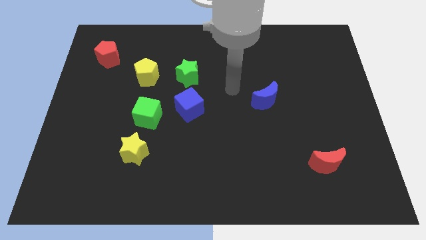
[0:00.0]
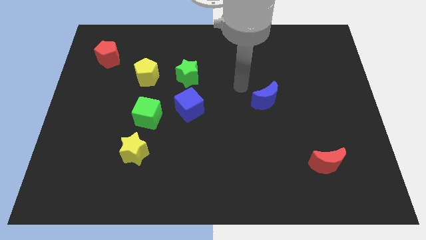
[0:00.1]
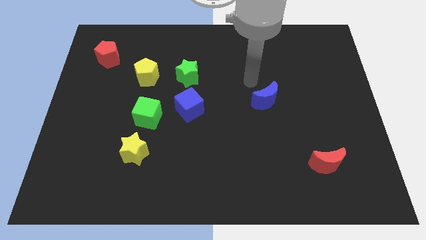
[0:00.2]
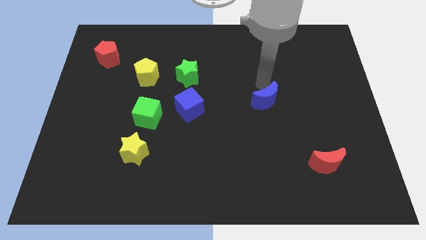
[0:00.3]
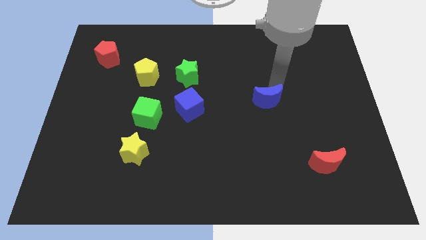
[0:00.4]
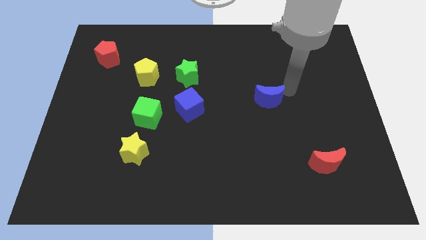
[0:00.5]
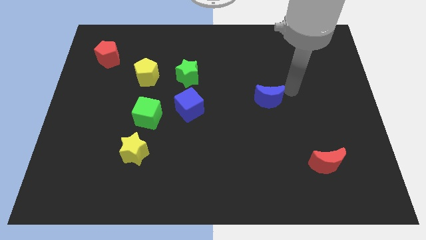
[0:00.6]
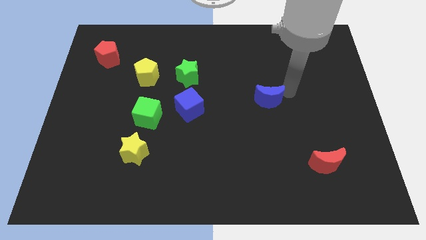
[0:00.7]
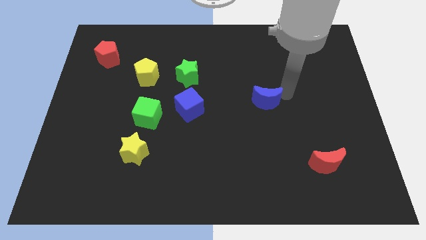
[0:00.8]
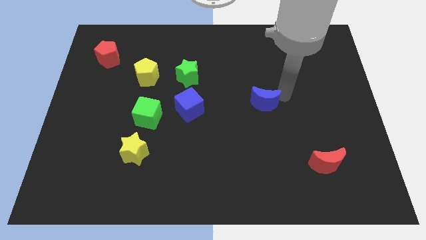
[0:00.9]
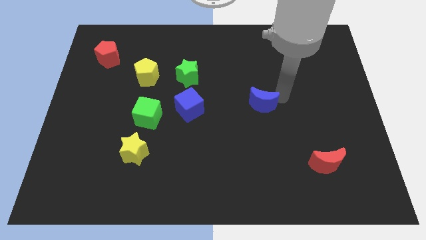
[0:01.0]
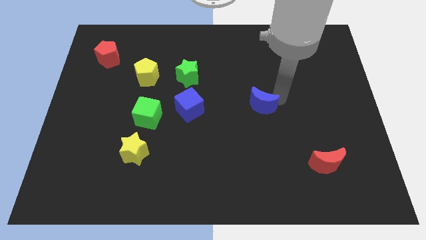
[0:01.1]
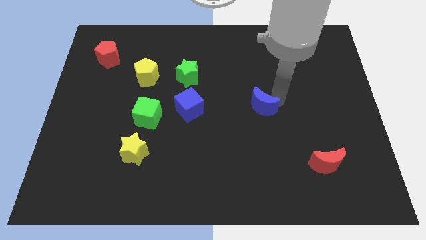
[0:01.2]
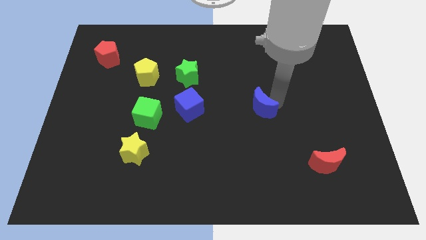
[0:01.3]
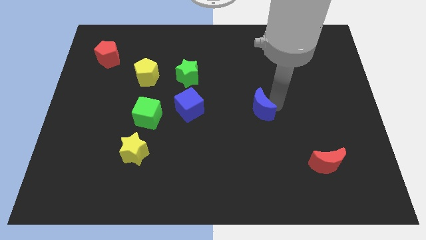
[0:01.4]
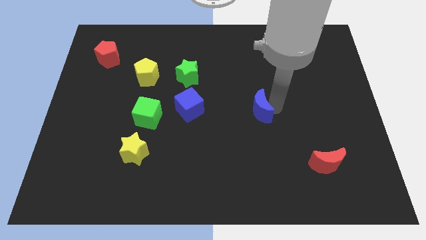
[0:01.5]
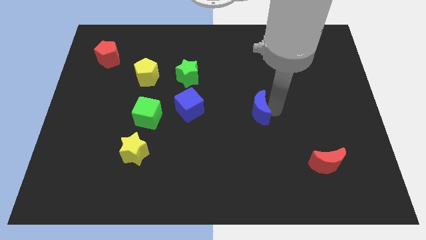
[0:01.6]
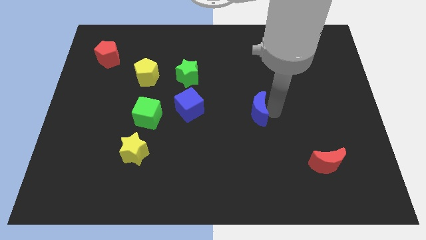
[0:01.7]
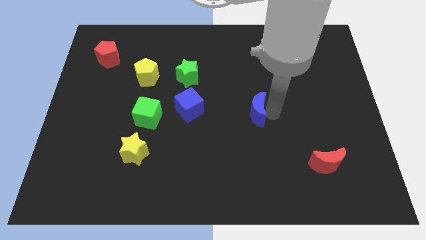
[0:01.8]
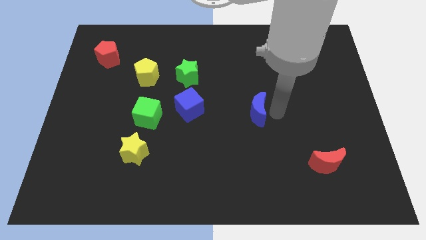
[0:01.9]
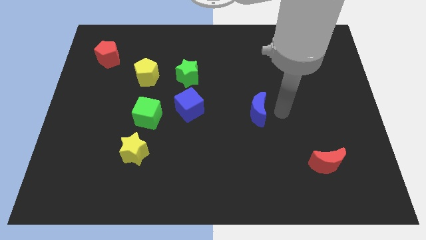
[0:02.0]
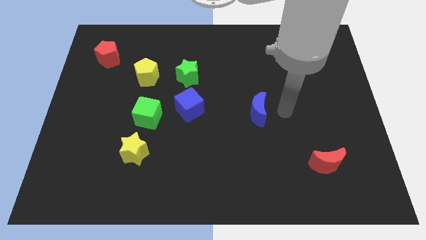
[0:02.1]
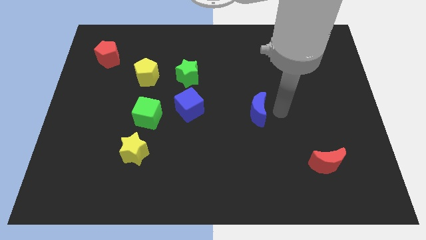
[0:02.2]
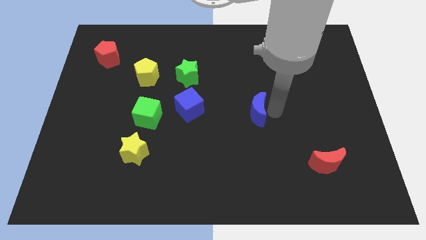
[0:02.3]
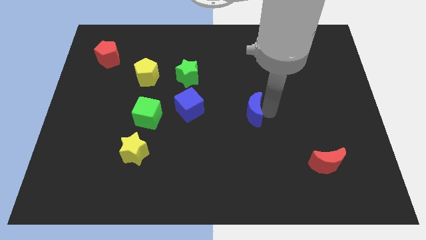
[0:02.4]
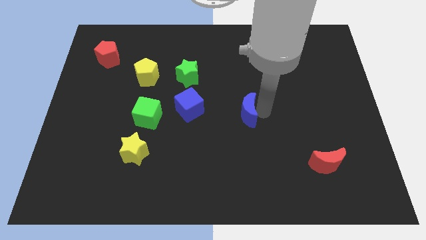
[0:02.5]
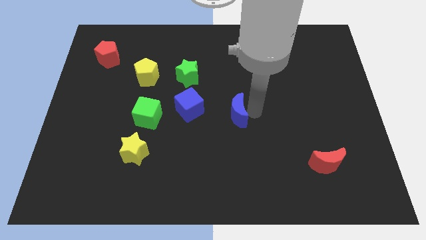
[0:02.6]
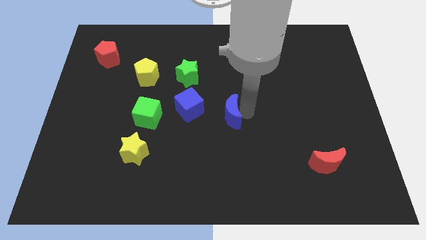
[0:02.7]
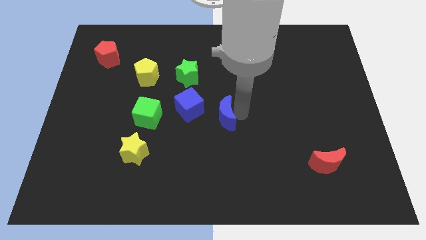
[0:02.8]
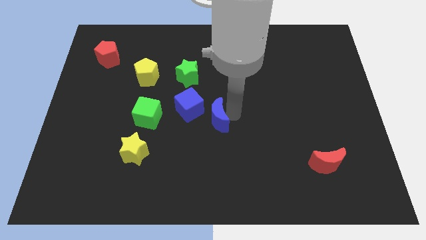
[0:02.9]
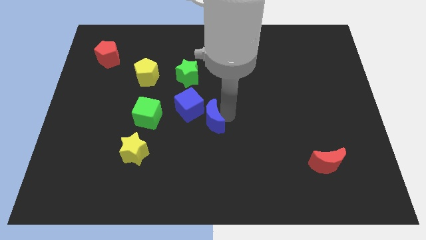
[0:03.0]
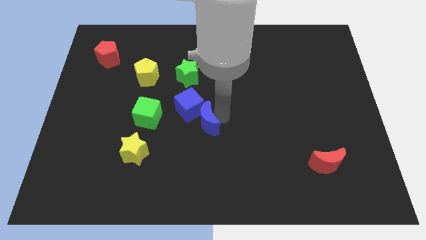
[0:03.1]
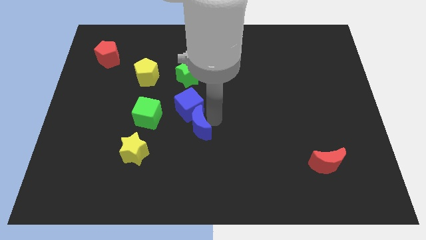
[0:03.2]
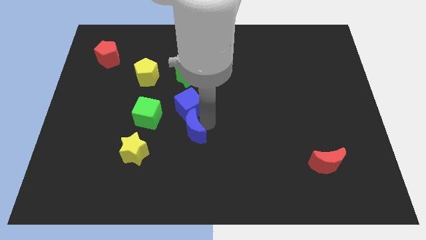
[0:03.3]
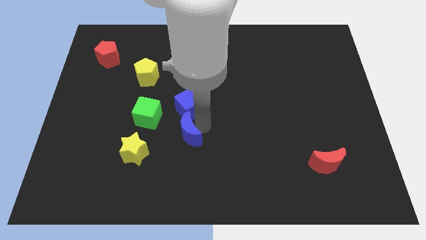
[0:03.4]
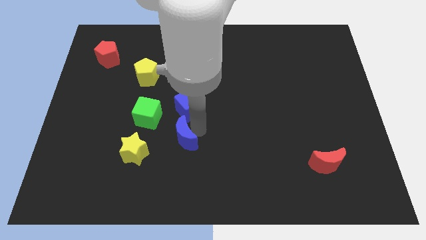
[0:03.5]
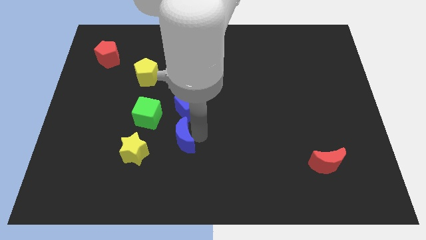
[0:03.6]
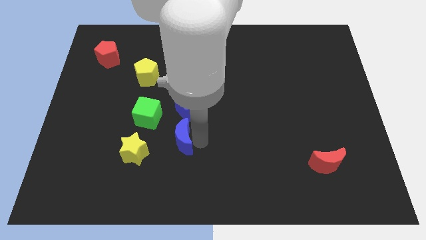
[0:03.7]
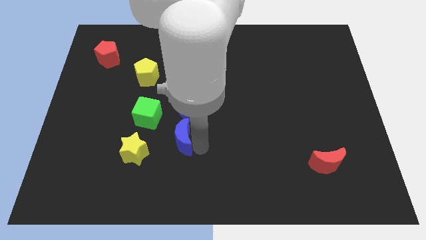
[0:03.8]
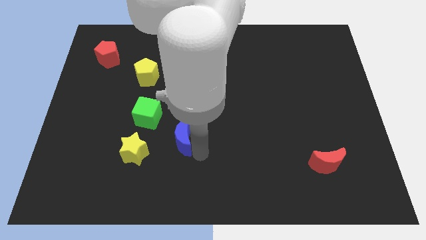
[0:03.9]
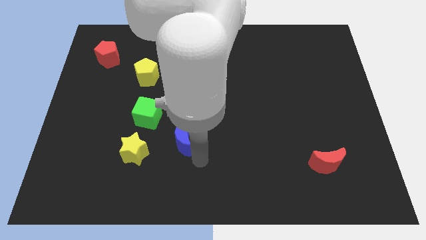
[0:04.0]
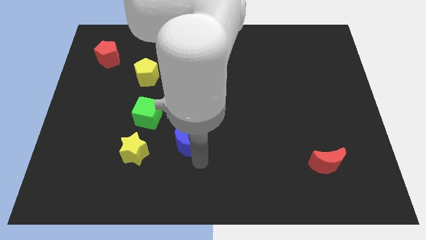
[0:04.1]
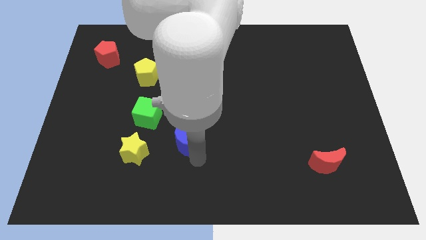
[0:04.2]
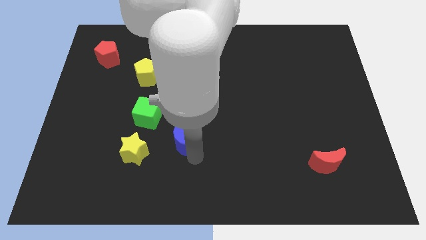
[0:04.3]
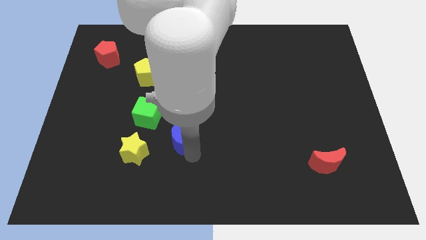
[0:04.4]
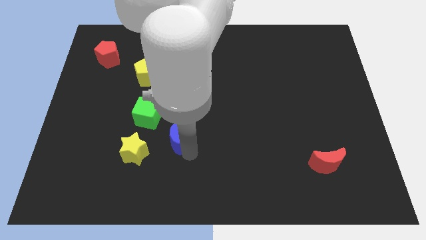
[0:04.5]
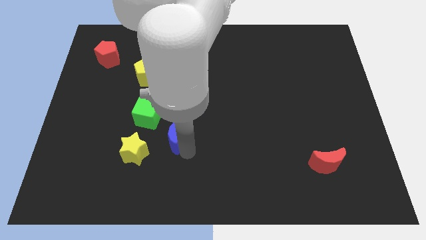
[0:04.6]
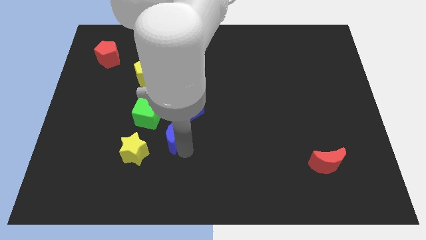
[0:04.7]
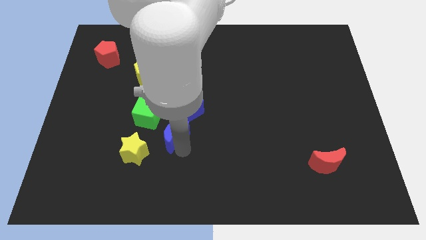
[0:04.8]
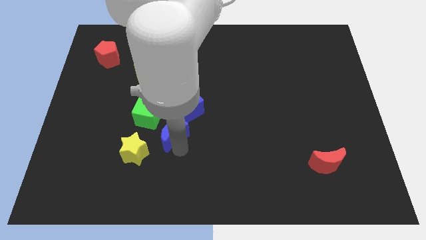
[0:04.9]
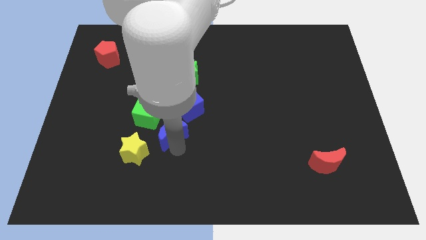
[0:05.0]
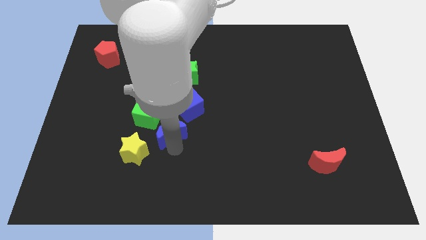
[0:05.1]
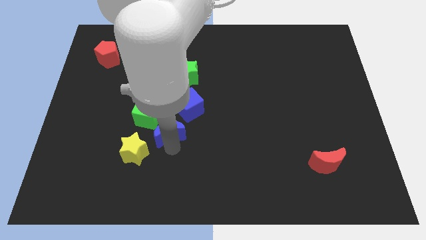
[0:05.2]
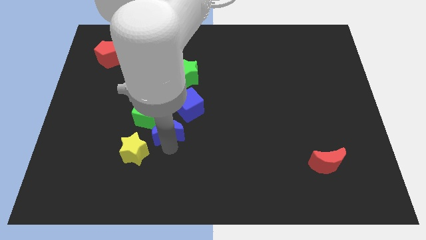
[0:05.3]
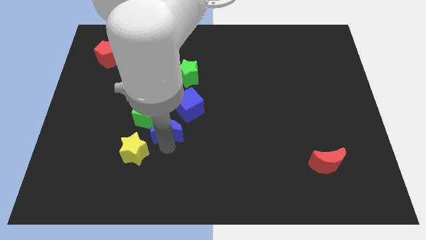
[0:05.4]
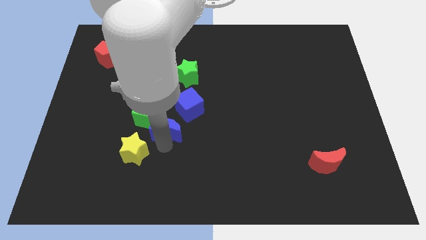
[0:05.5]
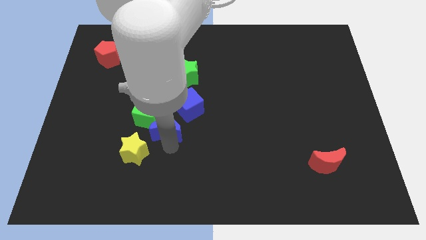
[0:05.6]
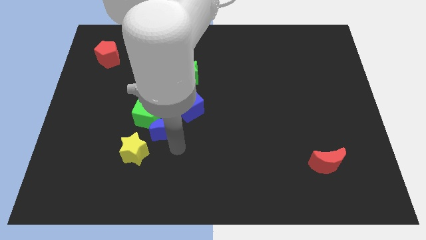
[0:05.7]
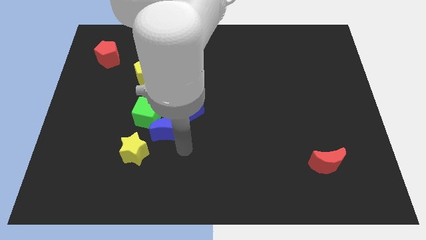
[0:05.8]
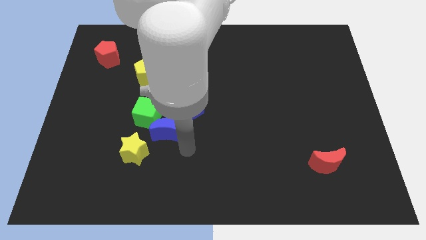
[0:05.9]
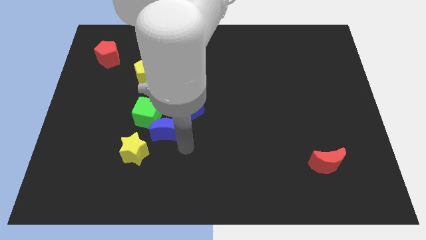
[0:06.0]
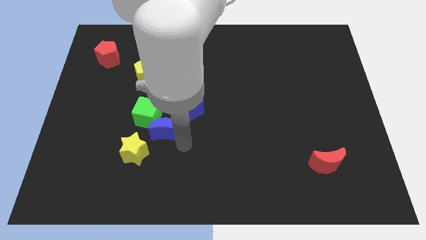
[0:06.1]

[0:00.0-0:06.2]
slide the blue moon close to the green cube
